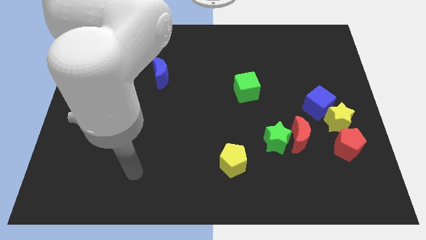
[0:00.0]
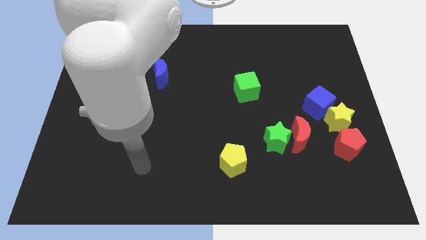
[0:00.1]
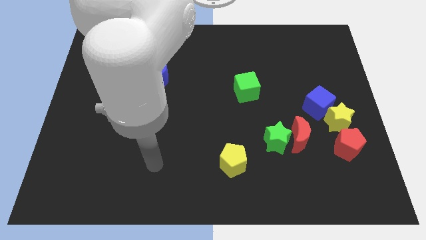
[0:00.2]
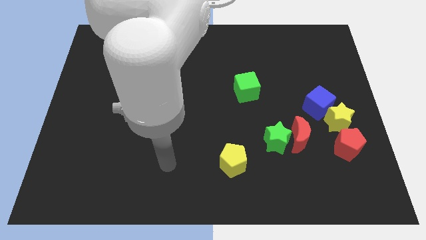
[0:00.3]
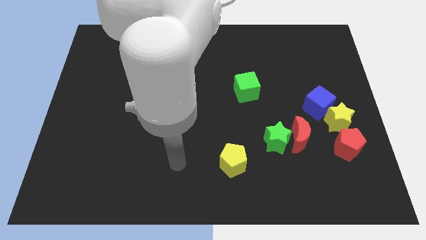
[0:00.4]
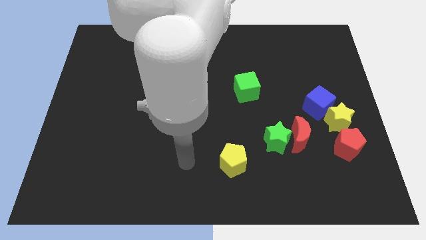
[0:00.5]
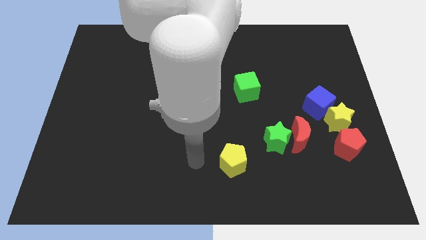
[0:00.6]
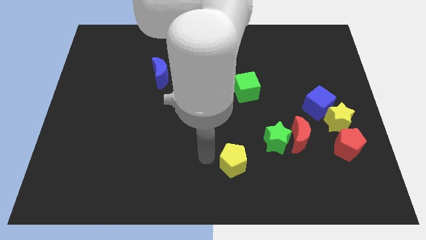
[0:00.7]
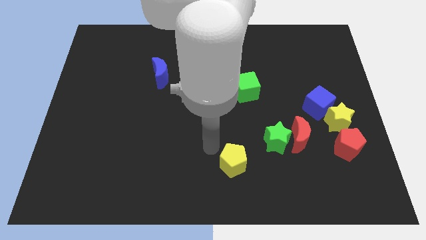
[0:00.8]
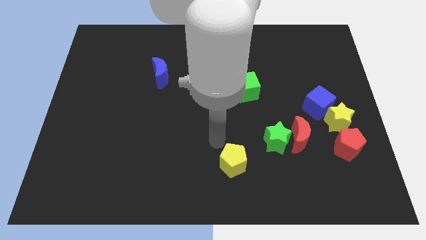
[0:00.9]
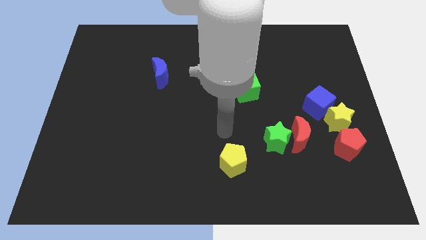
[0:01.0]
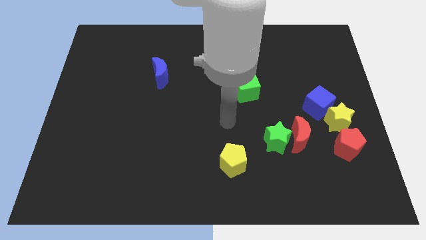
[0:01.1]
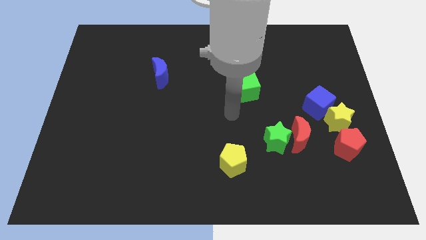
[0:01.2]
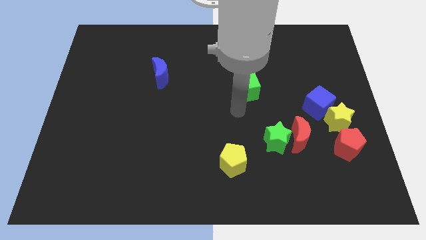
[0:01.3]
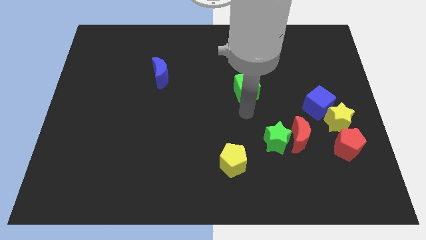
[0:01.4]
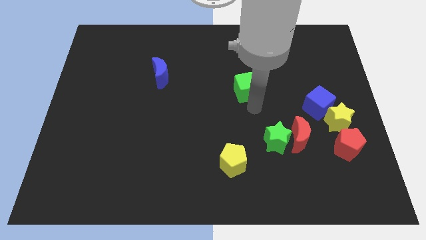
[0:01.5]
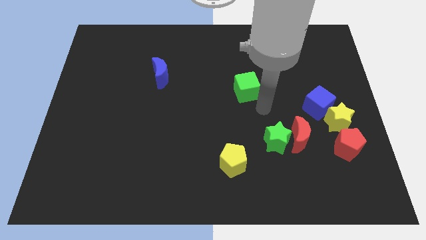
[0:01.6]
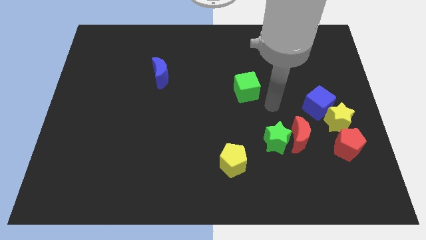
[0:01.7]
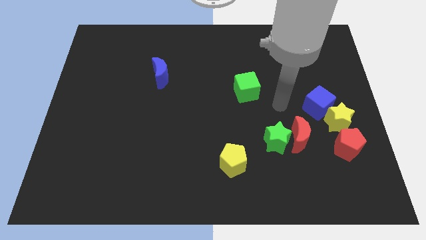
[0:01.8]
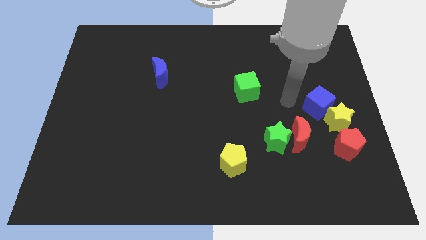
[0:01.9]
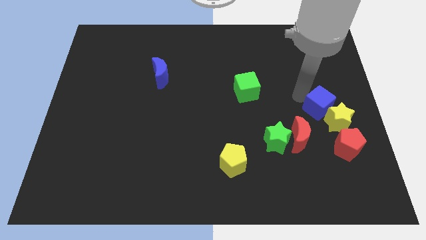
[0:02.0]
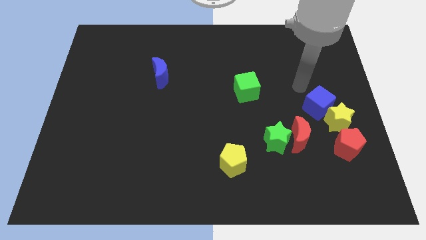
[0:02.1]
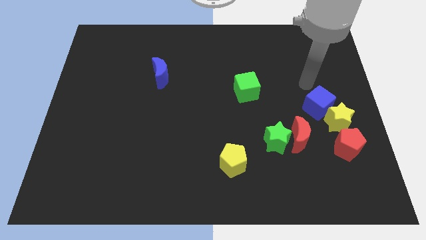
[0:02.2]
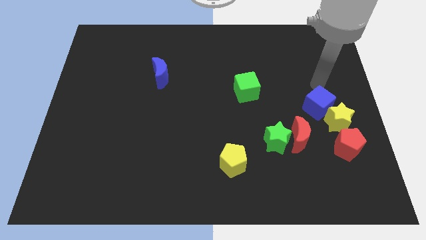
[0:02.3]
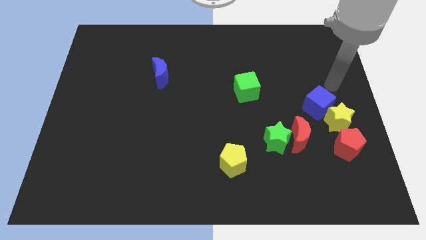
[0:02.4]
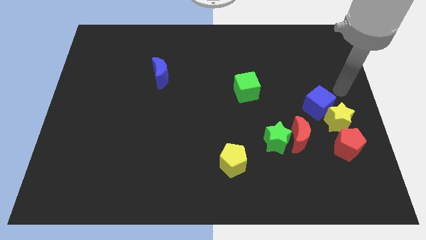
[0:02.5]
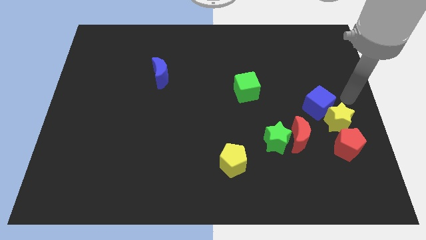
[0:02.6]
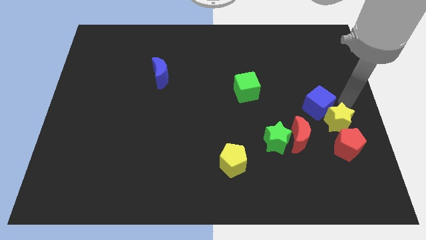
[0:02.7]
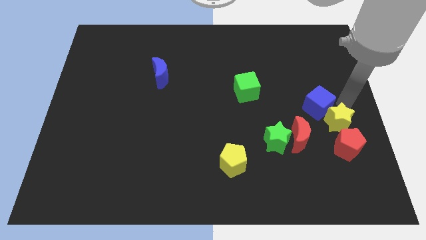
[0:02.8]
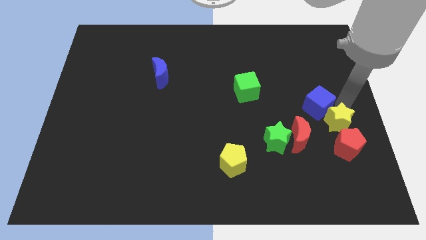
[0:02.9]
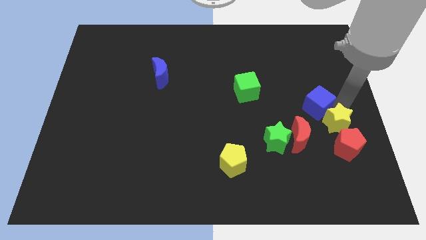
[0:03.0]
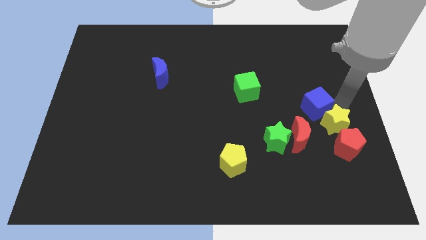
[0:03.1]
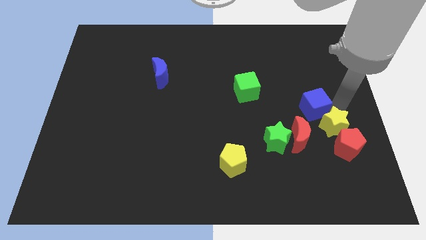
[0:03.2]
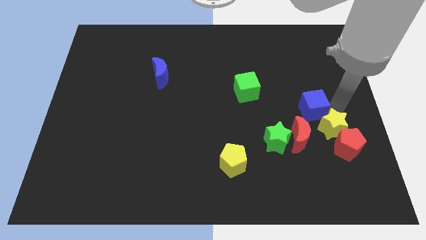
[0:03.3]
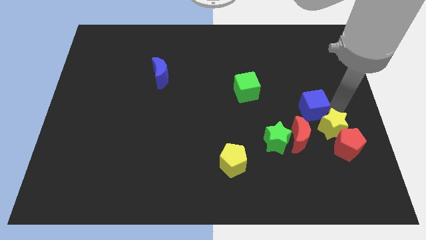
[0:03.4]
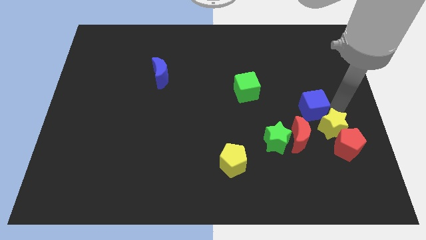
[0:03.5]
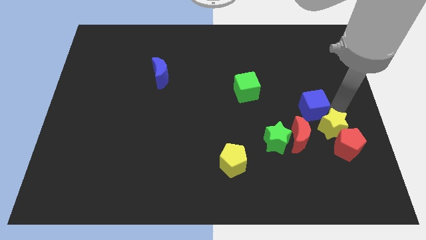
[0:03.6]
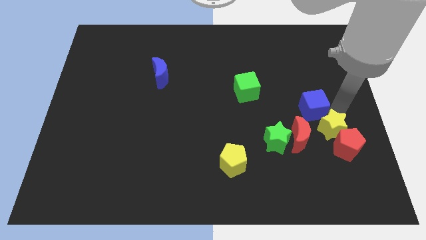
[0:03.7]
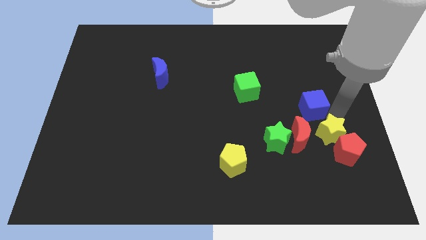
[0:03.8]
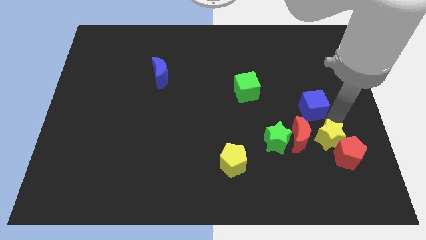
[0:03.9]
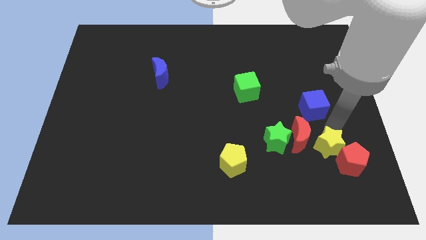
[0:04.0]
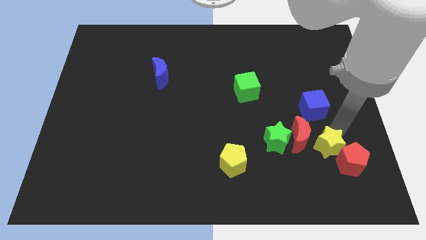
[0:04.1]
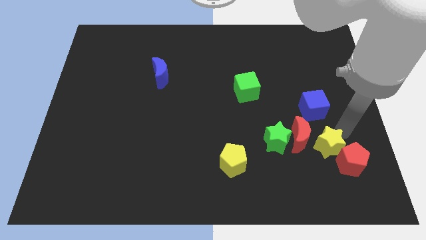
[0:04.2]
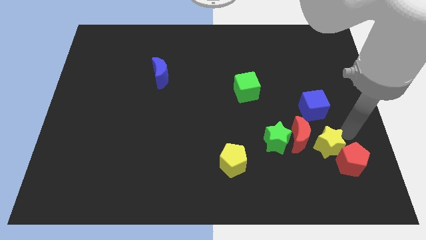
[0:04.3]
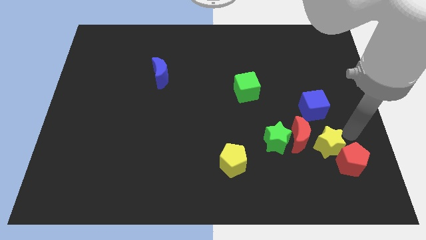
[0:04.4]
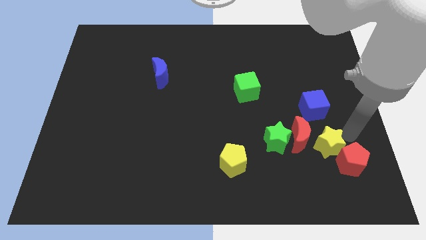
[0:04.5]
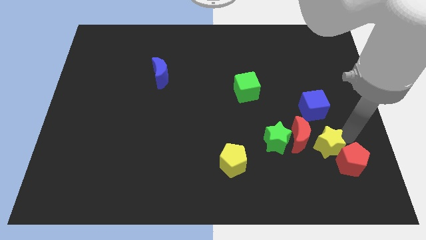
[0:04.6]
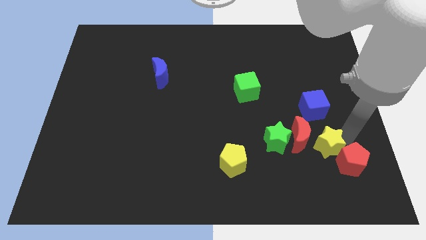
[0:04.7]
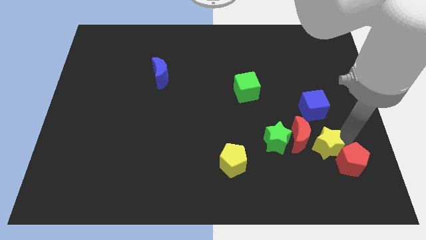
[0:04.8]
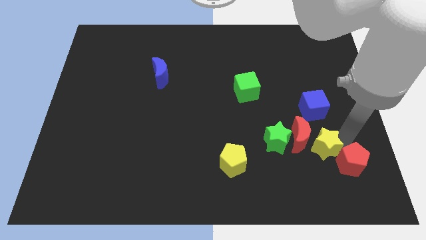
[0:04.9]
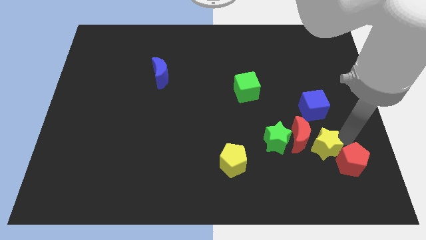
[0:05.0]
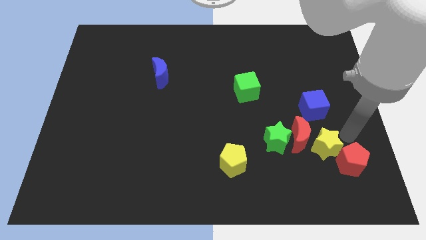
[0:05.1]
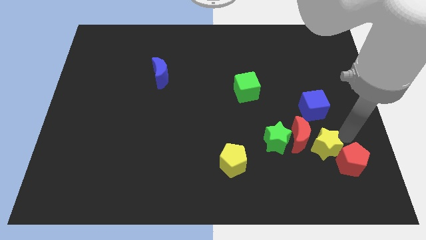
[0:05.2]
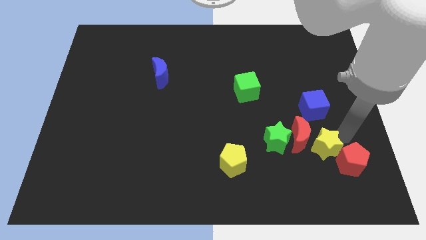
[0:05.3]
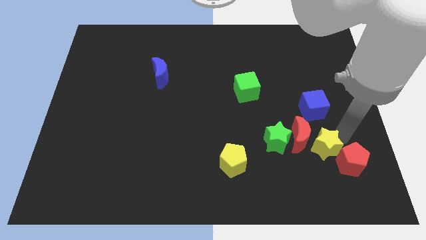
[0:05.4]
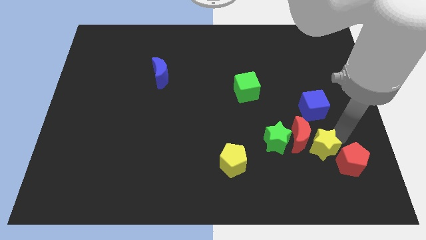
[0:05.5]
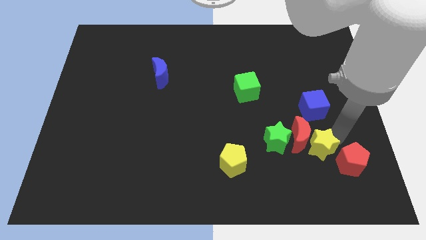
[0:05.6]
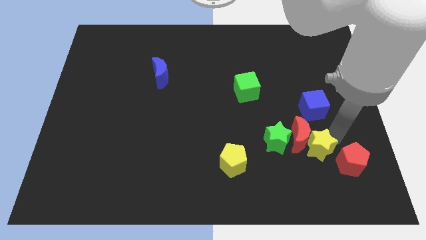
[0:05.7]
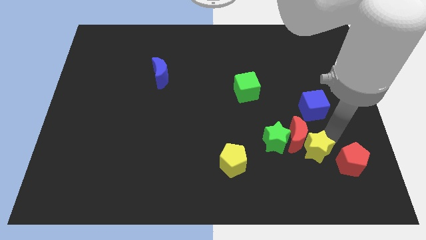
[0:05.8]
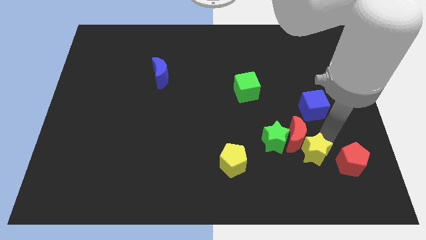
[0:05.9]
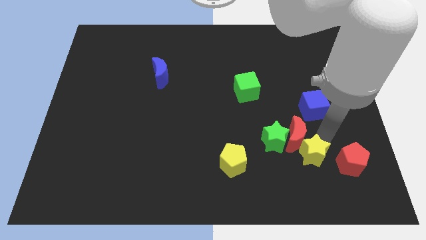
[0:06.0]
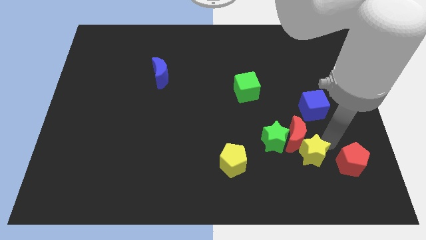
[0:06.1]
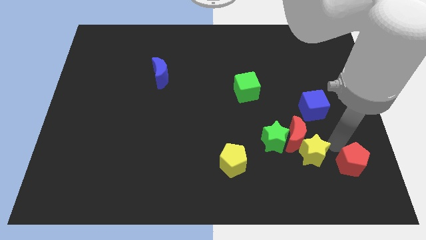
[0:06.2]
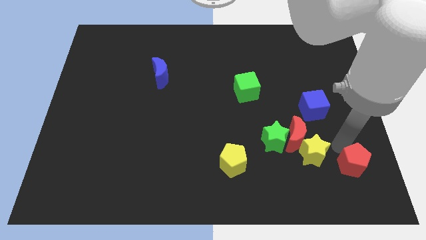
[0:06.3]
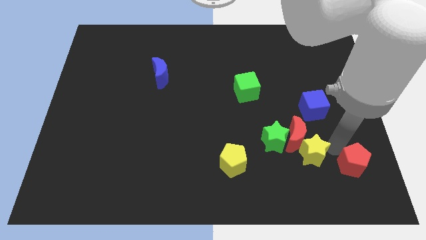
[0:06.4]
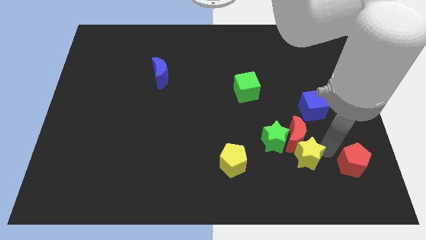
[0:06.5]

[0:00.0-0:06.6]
put the yellow star right of the yellow pentagon
